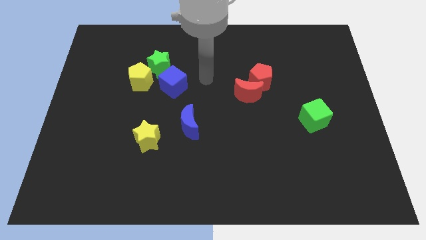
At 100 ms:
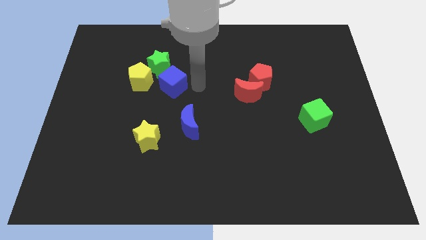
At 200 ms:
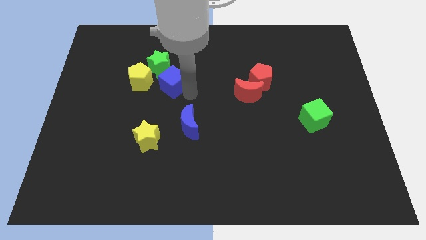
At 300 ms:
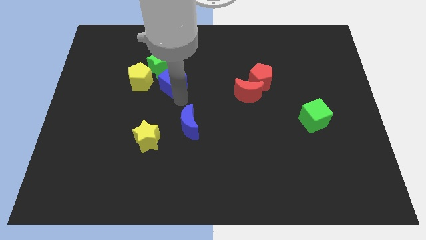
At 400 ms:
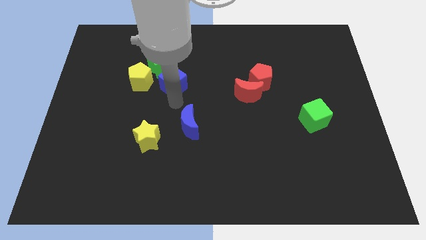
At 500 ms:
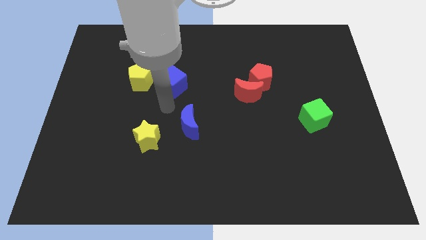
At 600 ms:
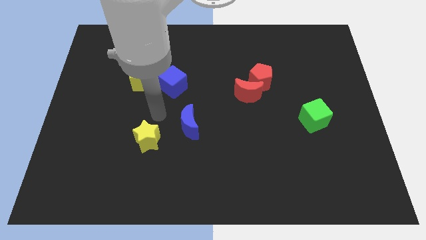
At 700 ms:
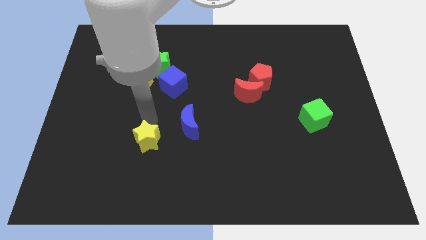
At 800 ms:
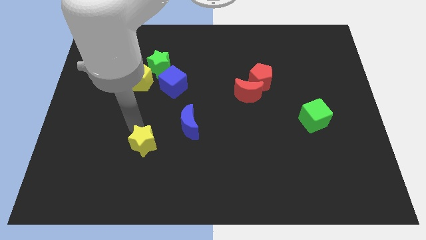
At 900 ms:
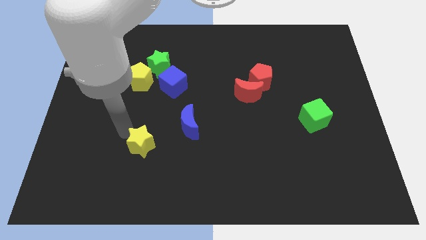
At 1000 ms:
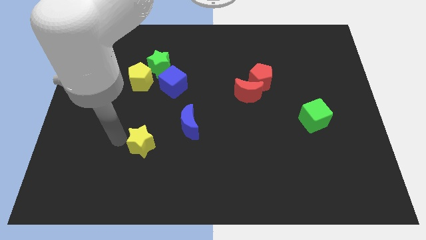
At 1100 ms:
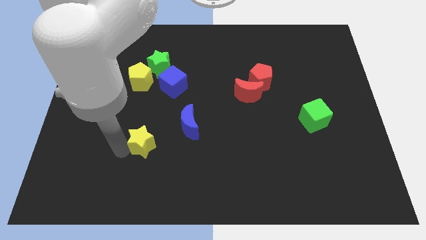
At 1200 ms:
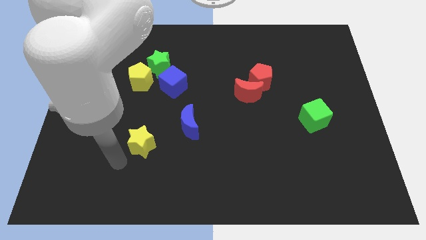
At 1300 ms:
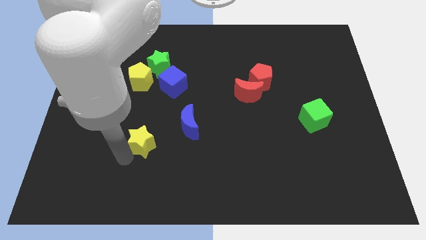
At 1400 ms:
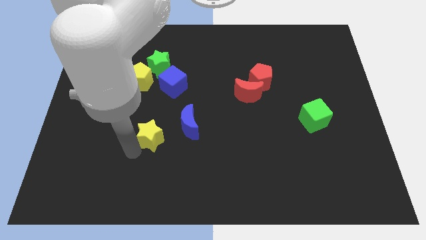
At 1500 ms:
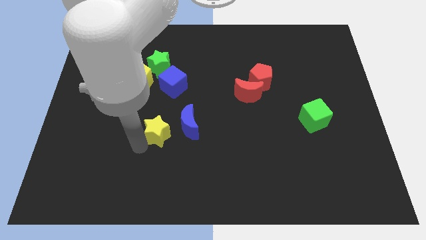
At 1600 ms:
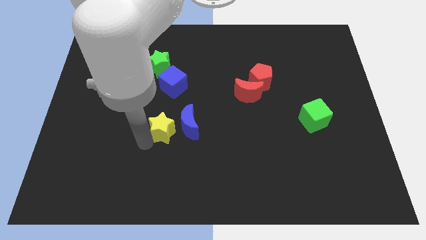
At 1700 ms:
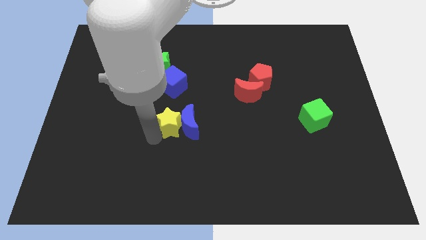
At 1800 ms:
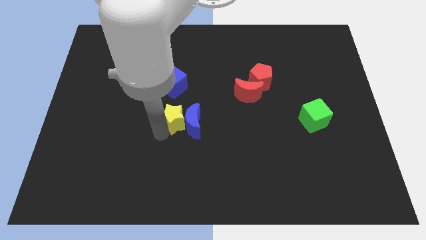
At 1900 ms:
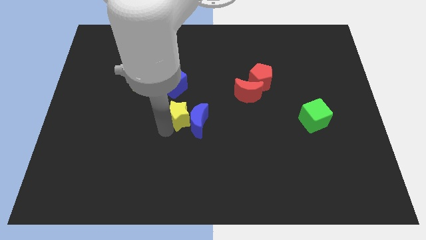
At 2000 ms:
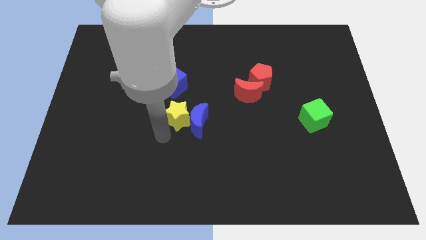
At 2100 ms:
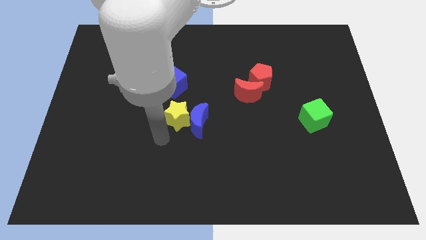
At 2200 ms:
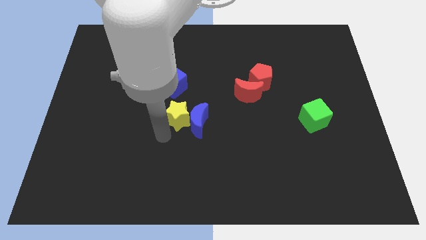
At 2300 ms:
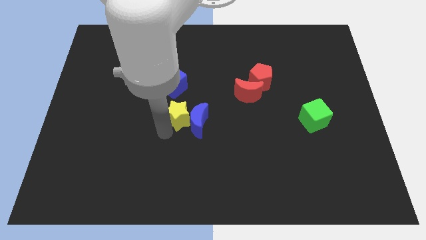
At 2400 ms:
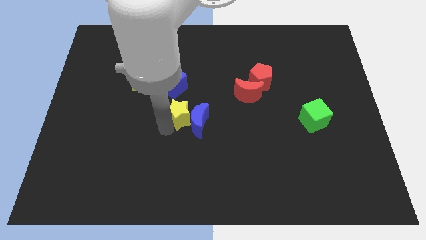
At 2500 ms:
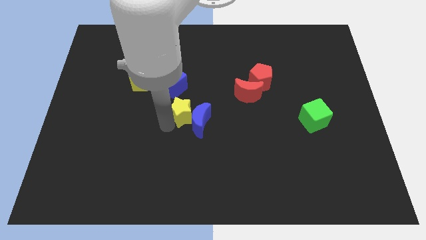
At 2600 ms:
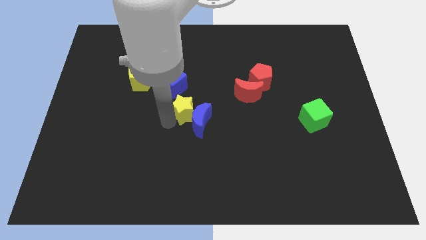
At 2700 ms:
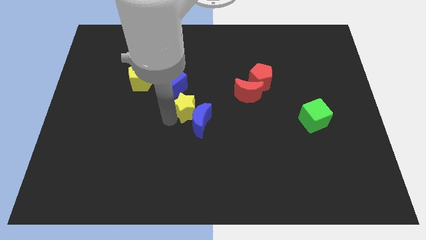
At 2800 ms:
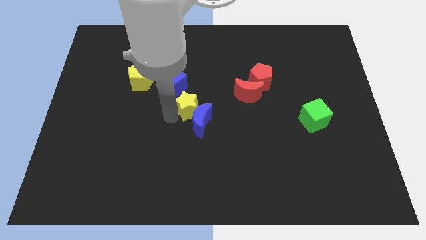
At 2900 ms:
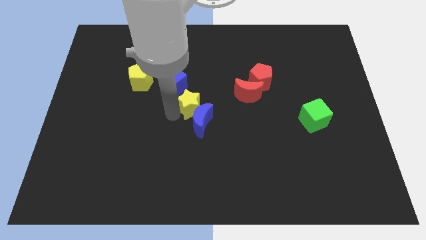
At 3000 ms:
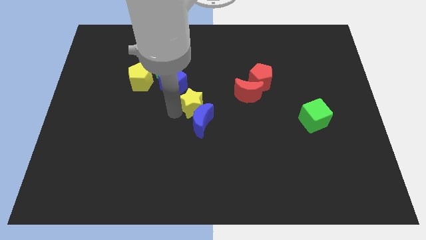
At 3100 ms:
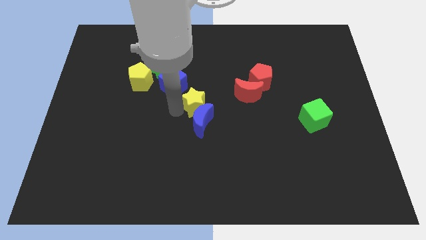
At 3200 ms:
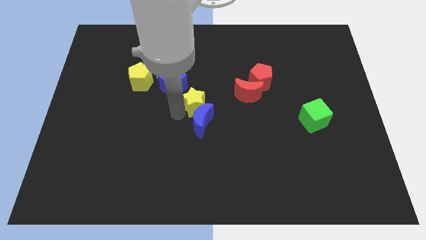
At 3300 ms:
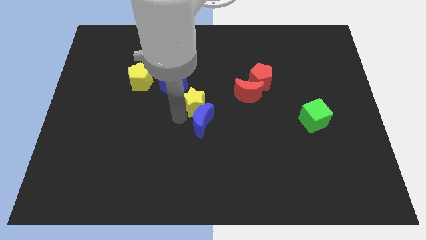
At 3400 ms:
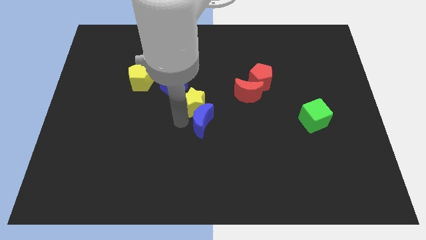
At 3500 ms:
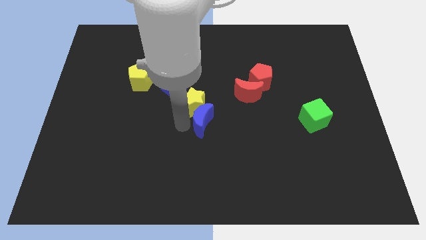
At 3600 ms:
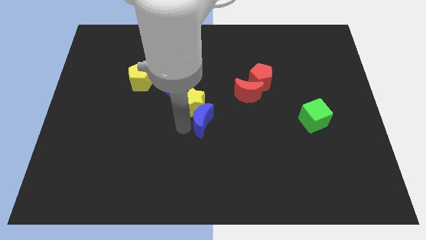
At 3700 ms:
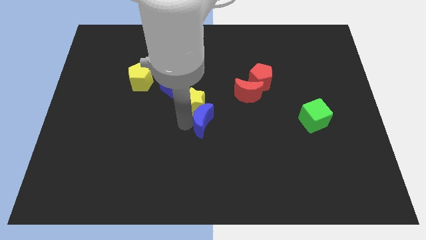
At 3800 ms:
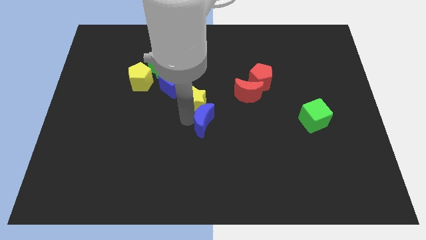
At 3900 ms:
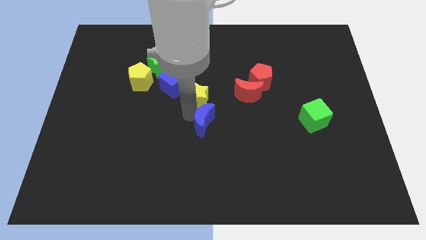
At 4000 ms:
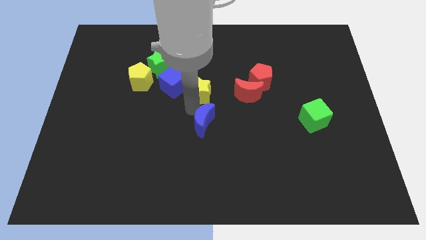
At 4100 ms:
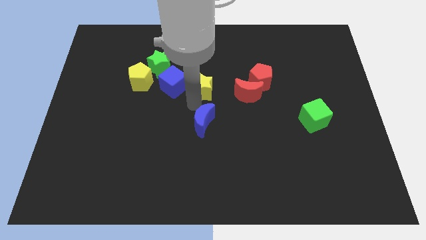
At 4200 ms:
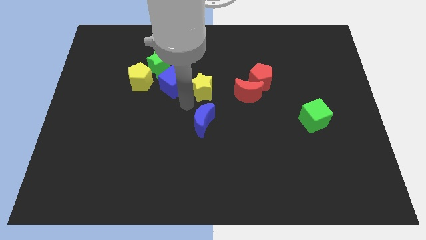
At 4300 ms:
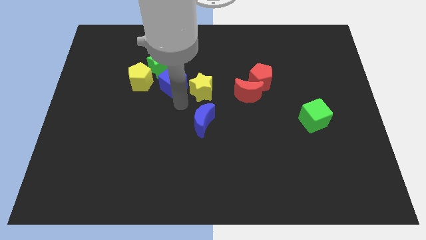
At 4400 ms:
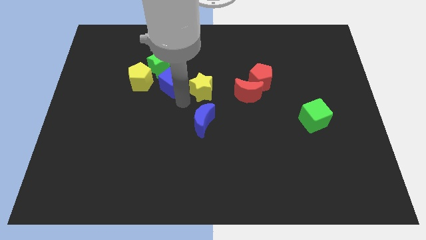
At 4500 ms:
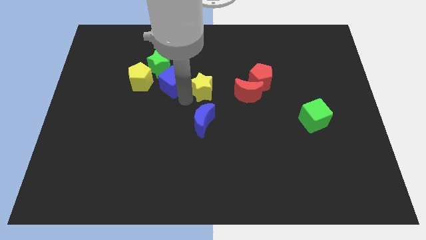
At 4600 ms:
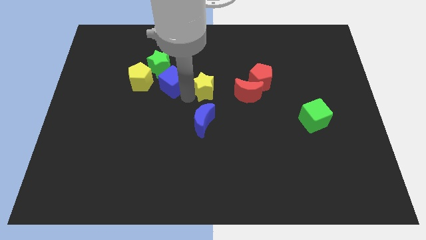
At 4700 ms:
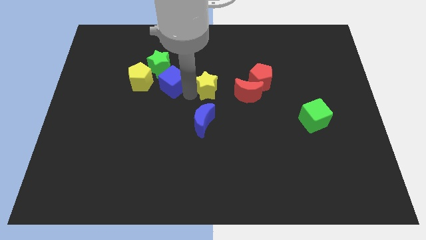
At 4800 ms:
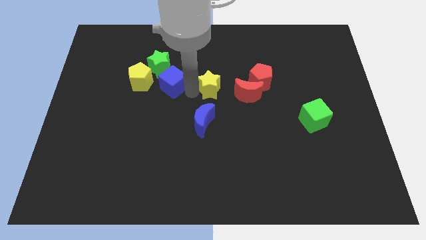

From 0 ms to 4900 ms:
push the yellow star diagonally upwards and right

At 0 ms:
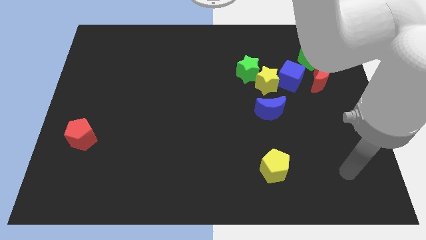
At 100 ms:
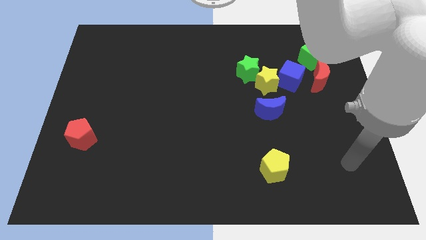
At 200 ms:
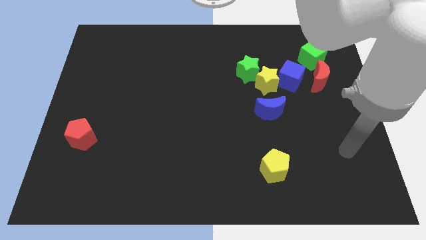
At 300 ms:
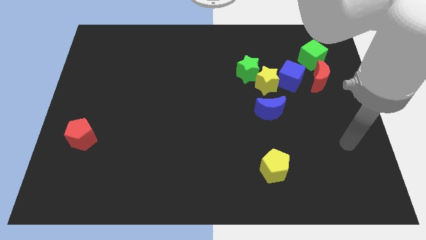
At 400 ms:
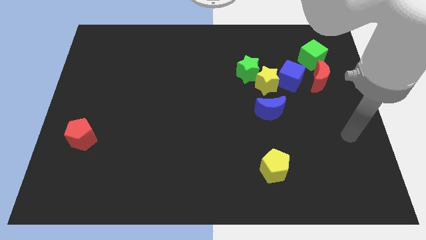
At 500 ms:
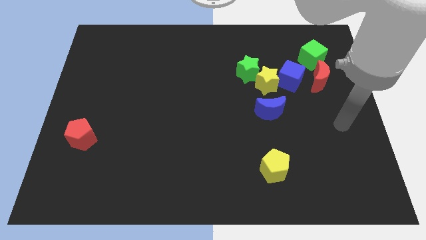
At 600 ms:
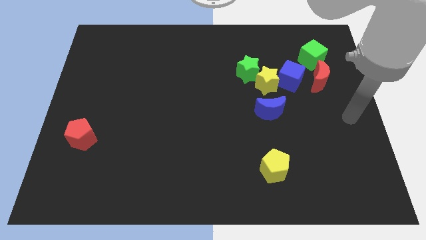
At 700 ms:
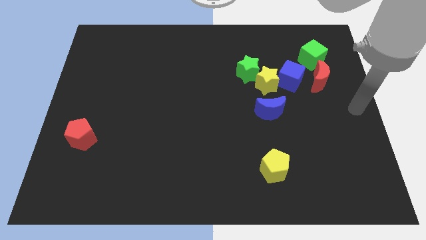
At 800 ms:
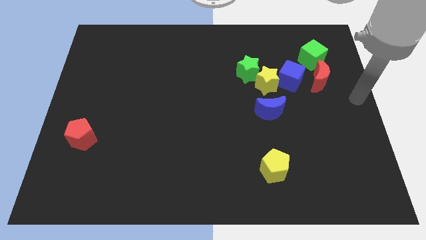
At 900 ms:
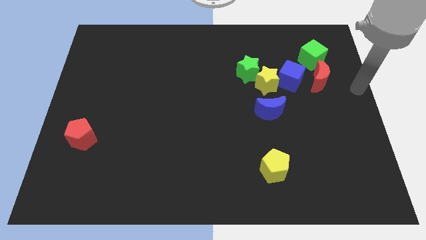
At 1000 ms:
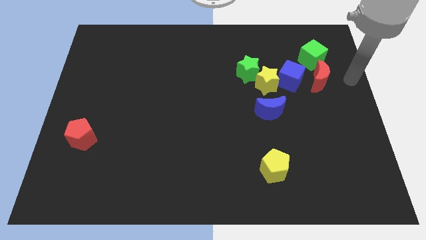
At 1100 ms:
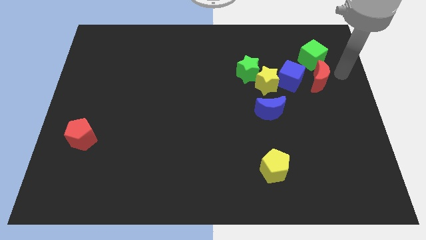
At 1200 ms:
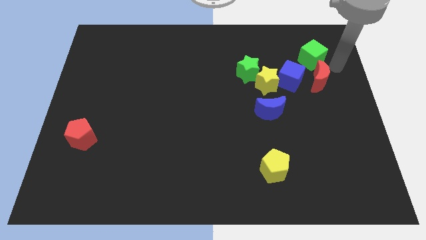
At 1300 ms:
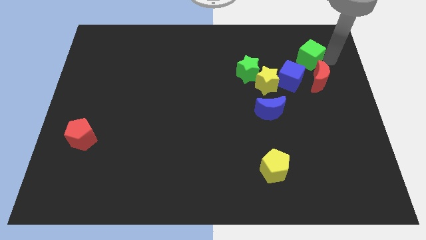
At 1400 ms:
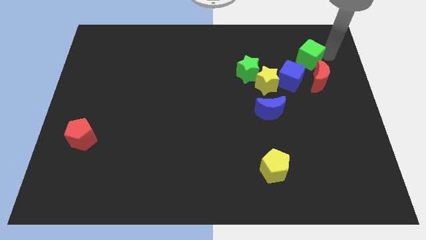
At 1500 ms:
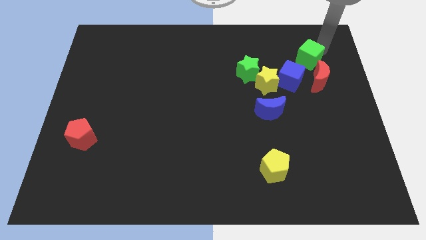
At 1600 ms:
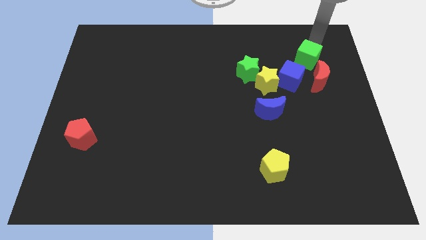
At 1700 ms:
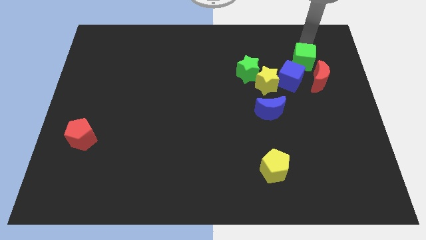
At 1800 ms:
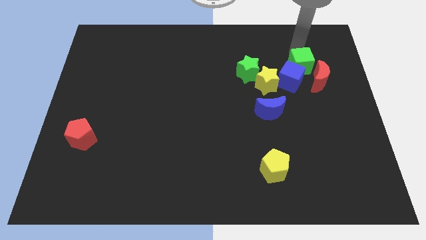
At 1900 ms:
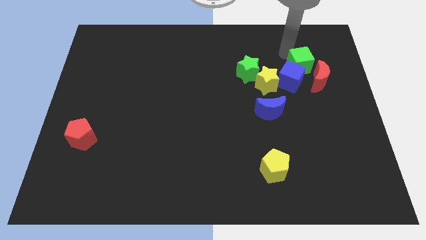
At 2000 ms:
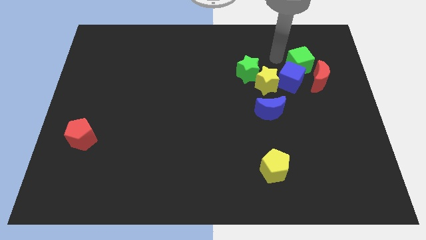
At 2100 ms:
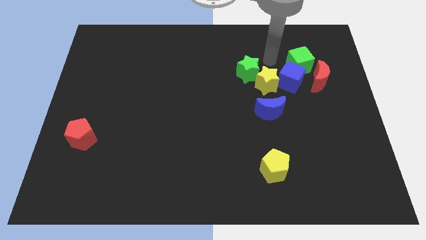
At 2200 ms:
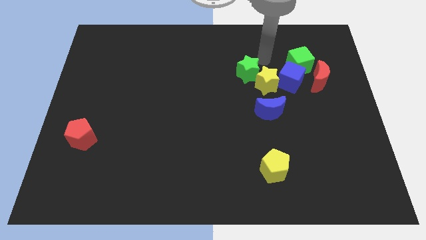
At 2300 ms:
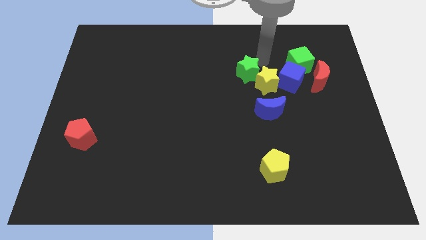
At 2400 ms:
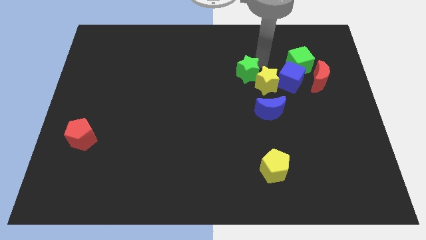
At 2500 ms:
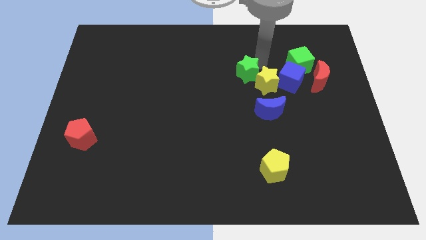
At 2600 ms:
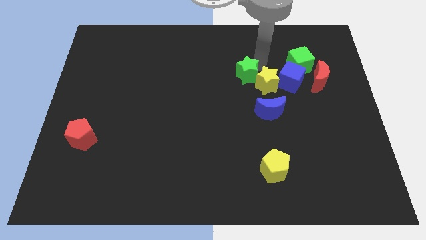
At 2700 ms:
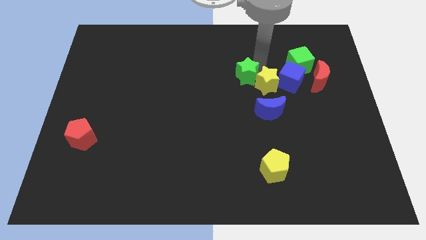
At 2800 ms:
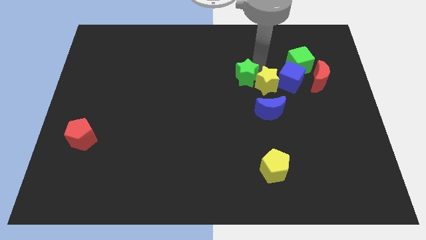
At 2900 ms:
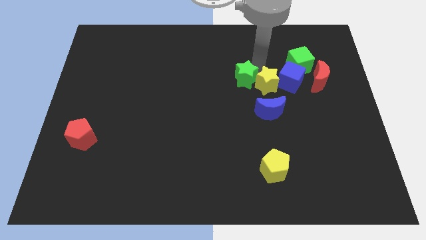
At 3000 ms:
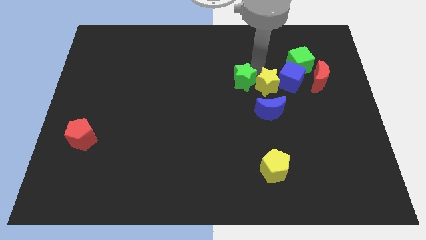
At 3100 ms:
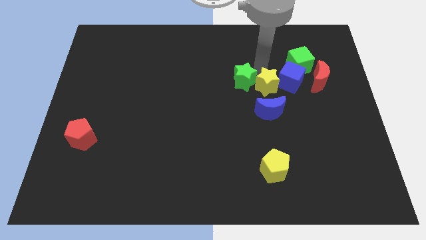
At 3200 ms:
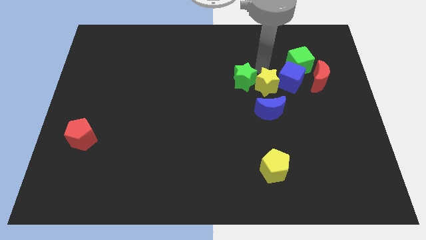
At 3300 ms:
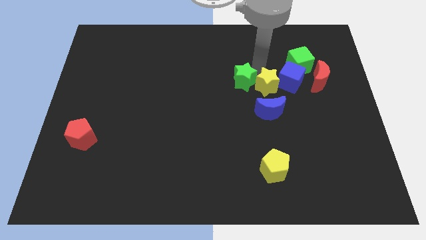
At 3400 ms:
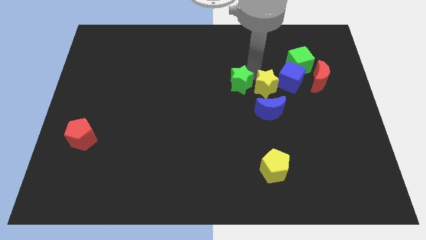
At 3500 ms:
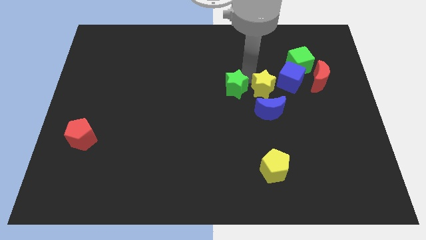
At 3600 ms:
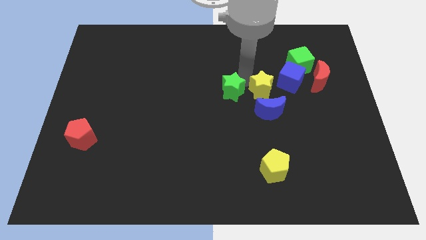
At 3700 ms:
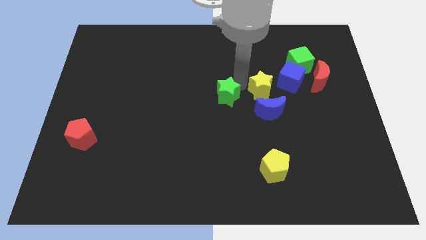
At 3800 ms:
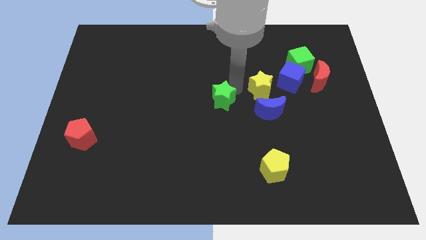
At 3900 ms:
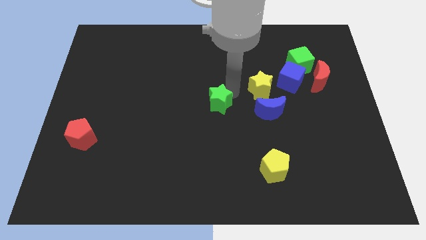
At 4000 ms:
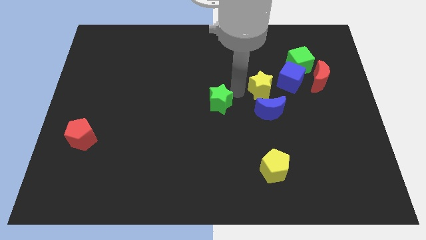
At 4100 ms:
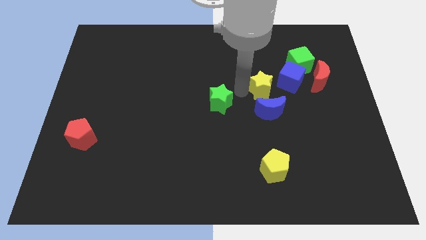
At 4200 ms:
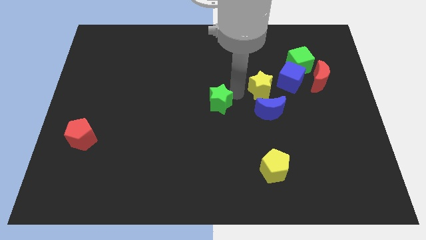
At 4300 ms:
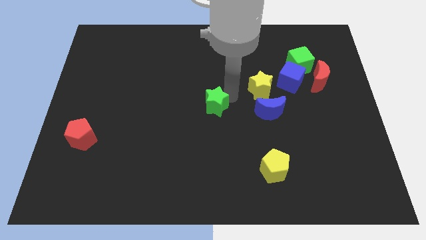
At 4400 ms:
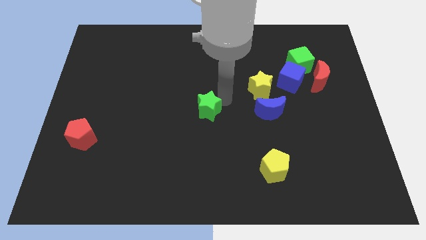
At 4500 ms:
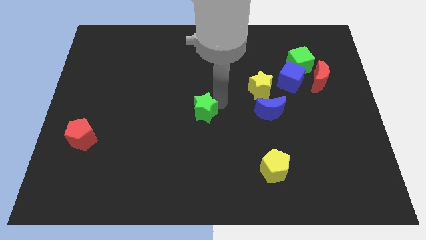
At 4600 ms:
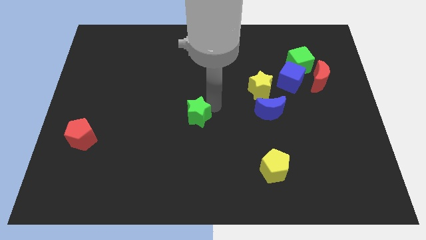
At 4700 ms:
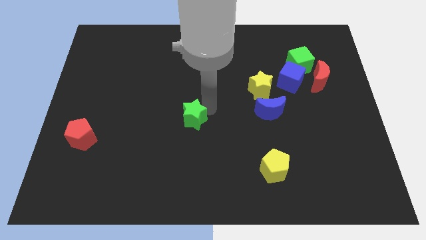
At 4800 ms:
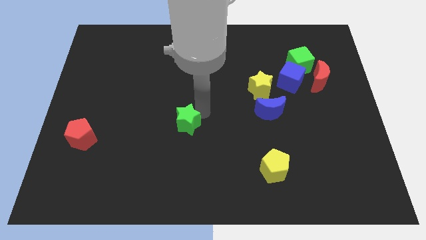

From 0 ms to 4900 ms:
push the green star downwards and left
